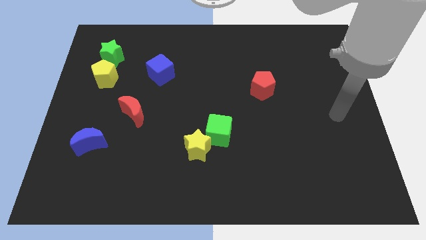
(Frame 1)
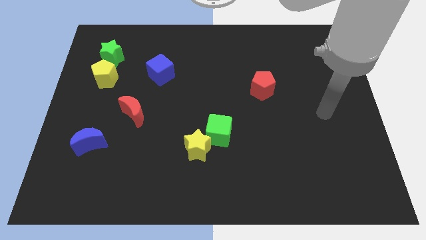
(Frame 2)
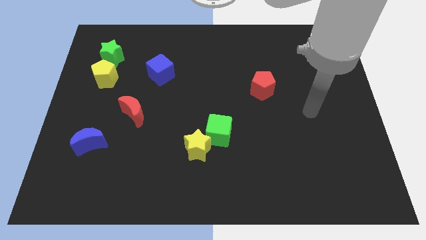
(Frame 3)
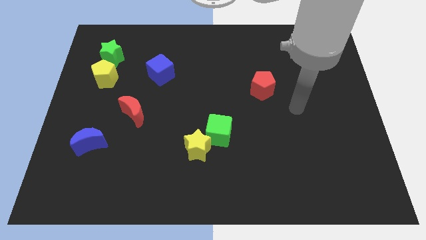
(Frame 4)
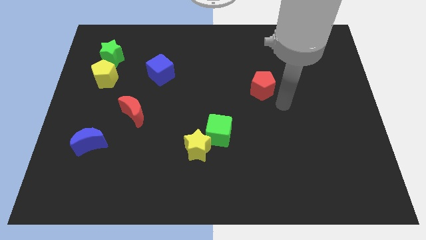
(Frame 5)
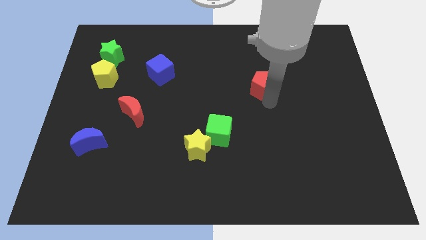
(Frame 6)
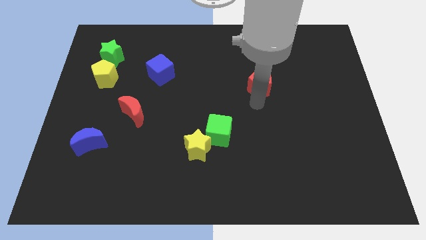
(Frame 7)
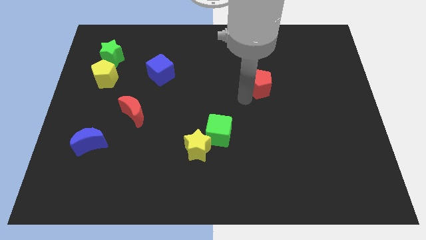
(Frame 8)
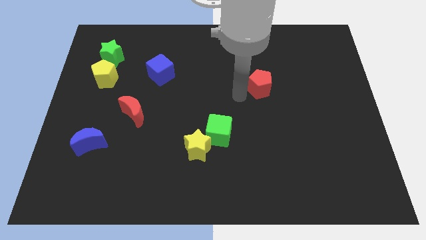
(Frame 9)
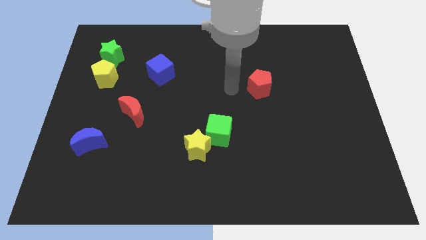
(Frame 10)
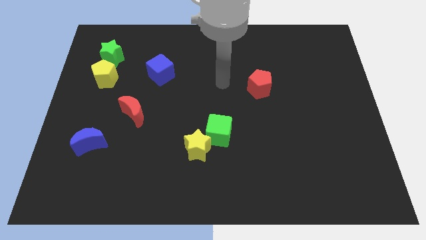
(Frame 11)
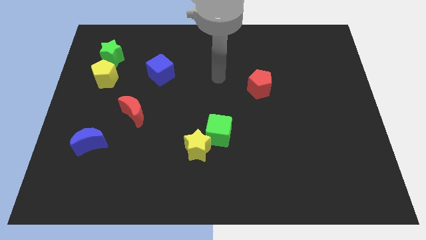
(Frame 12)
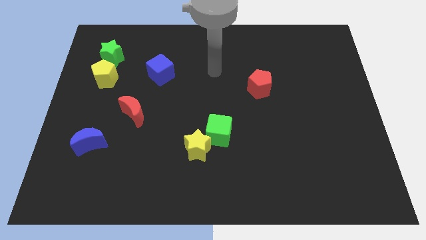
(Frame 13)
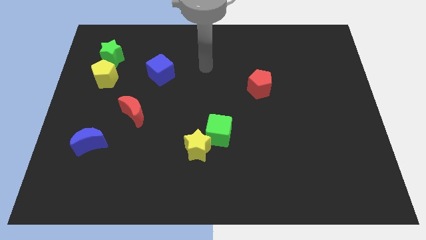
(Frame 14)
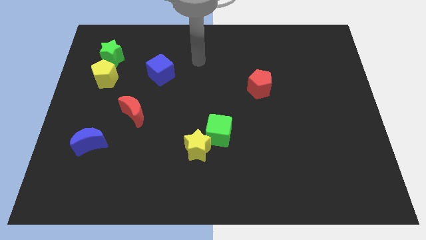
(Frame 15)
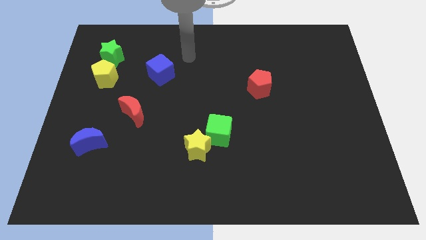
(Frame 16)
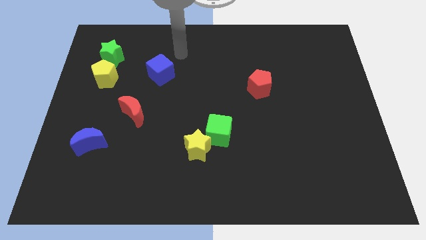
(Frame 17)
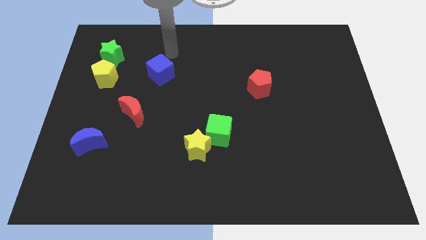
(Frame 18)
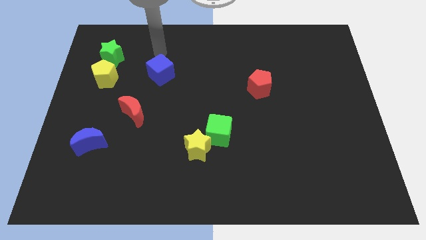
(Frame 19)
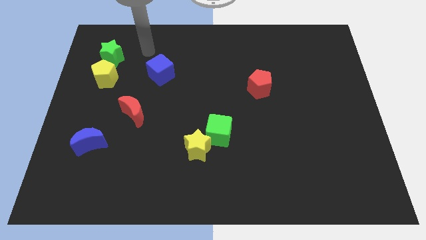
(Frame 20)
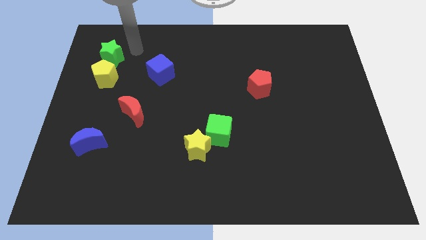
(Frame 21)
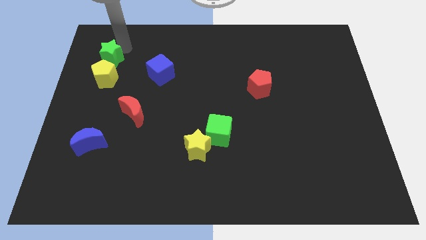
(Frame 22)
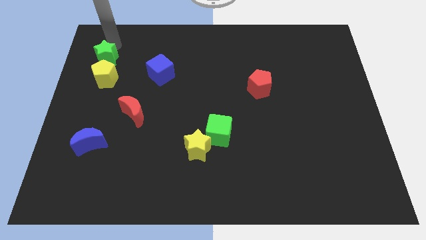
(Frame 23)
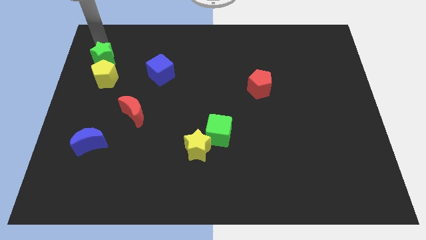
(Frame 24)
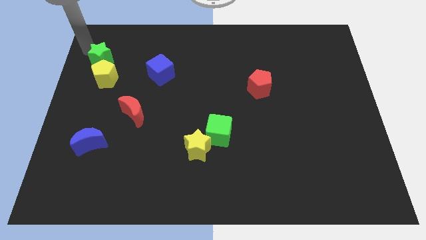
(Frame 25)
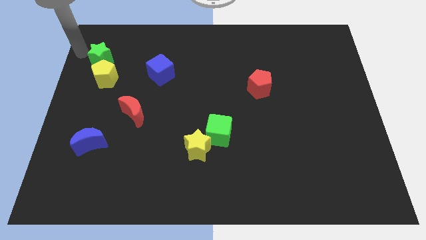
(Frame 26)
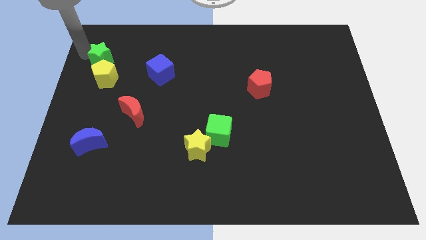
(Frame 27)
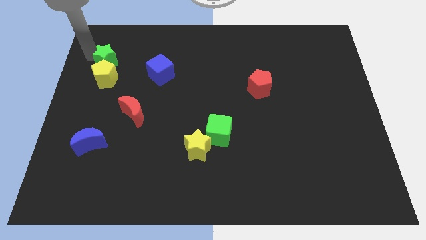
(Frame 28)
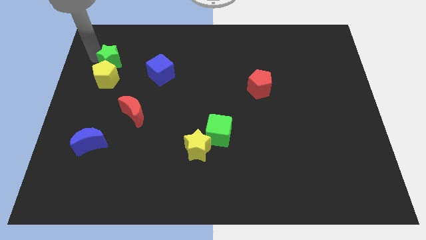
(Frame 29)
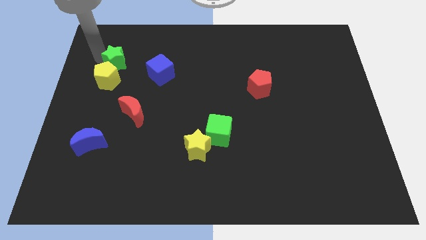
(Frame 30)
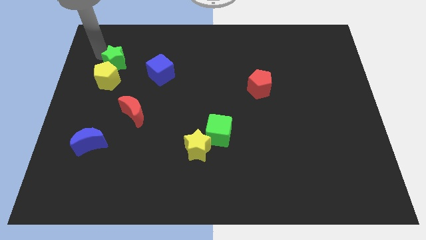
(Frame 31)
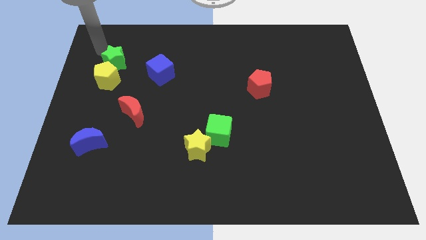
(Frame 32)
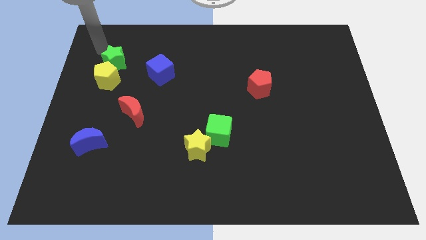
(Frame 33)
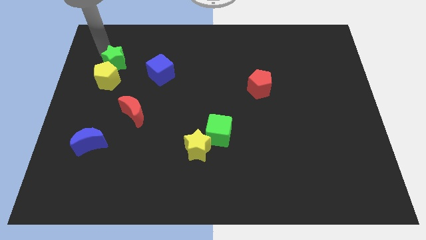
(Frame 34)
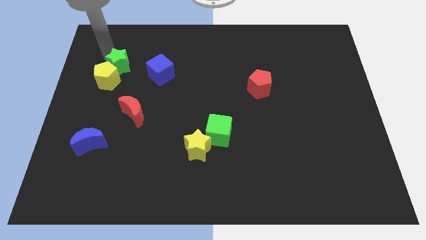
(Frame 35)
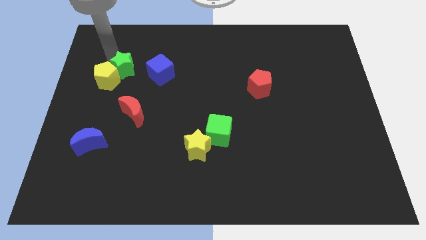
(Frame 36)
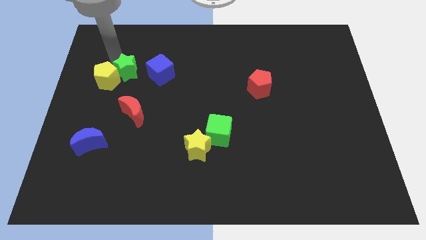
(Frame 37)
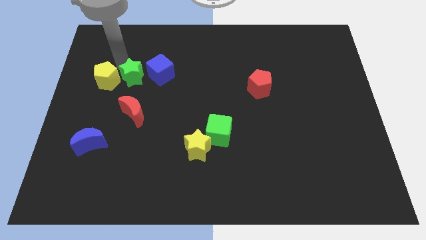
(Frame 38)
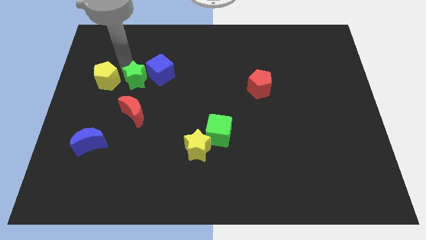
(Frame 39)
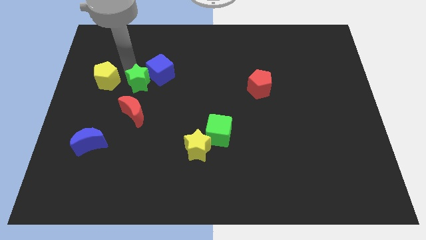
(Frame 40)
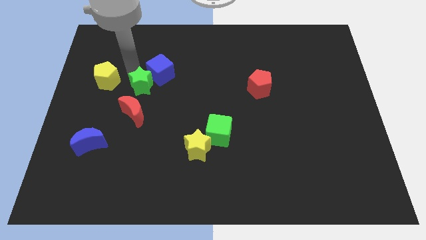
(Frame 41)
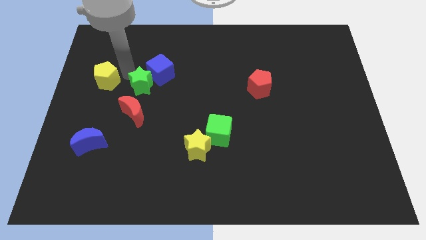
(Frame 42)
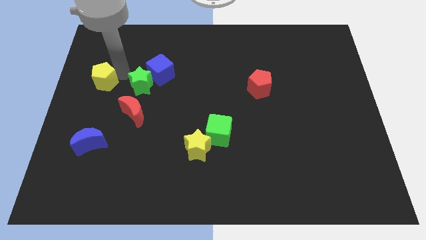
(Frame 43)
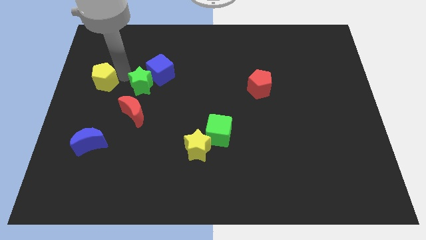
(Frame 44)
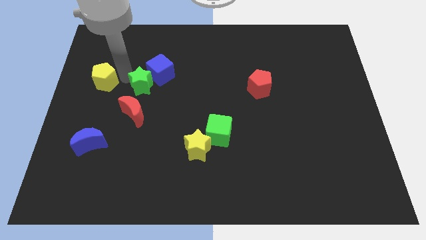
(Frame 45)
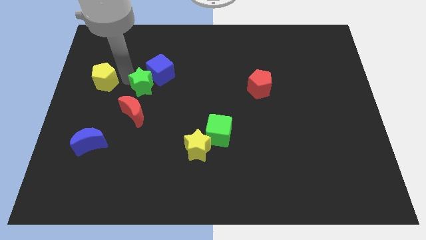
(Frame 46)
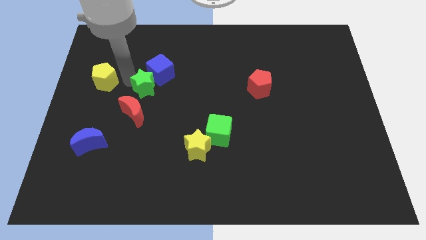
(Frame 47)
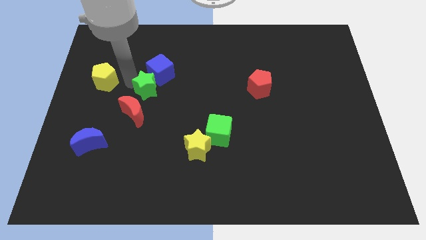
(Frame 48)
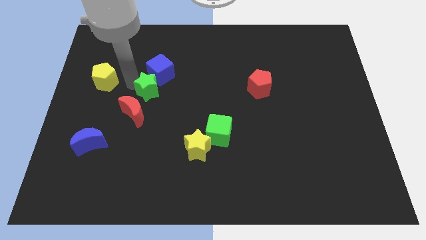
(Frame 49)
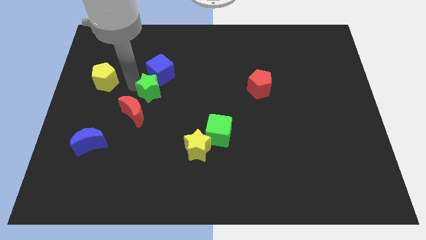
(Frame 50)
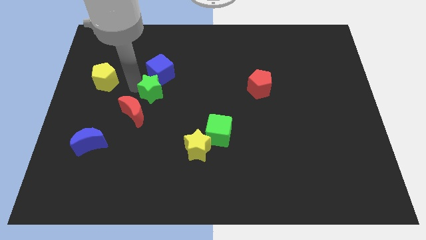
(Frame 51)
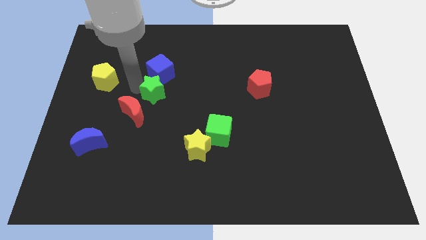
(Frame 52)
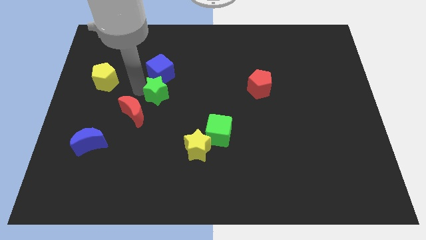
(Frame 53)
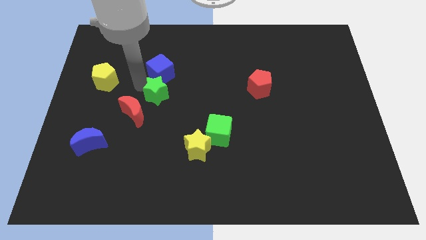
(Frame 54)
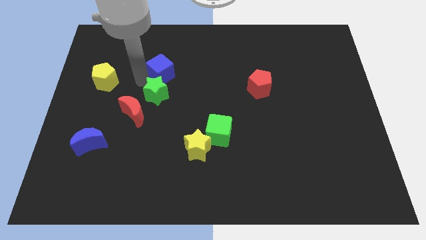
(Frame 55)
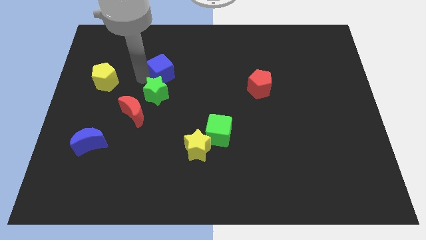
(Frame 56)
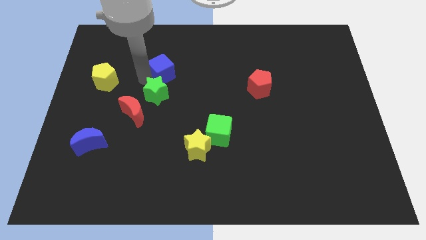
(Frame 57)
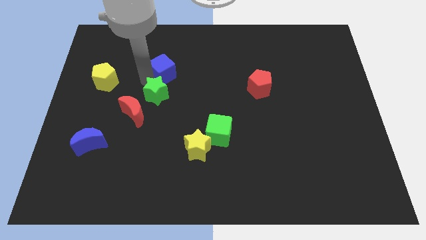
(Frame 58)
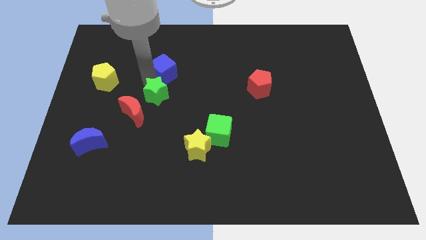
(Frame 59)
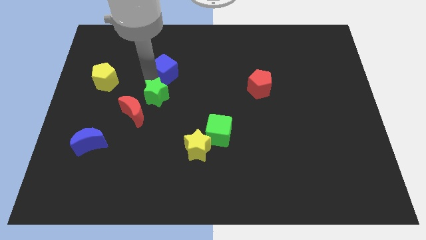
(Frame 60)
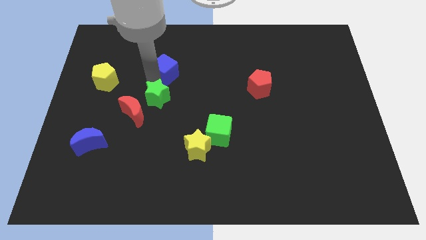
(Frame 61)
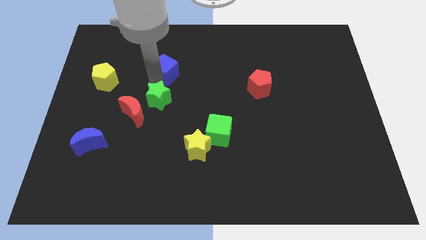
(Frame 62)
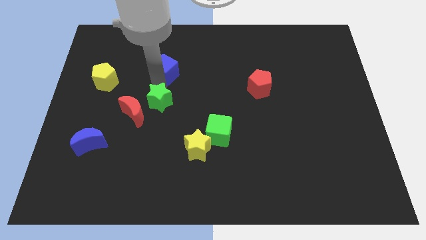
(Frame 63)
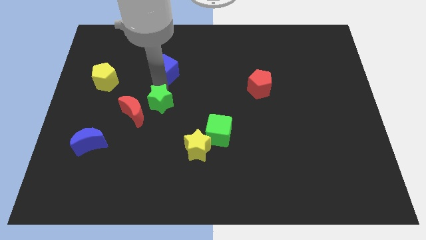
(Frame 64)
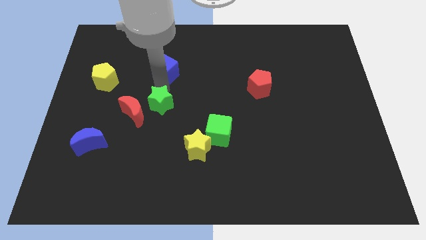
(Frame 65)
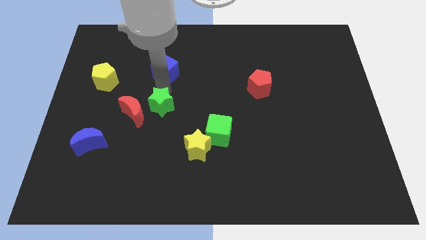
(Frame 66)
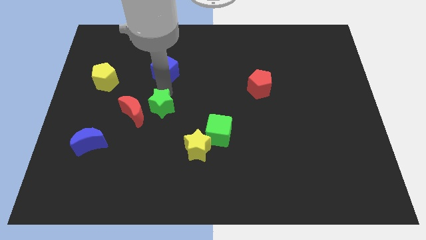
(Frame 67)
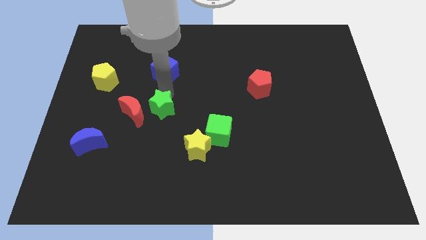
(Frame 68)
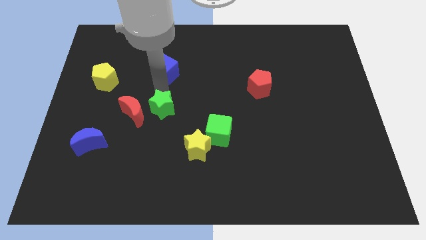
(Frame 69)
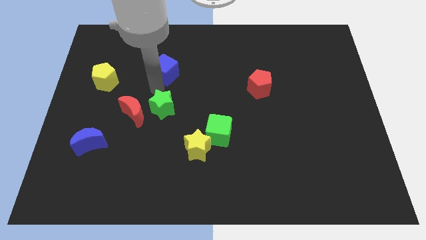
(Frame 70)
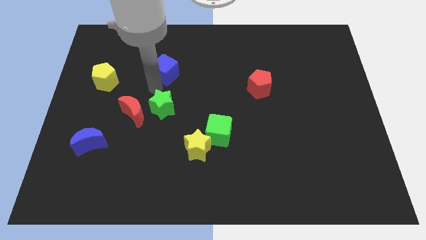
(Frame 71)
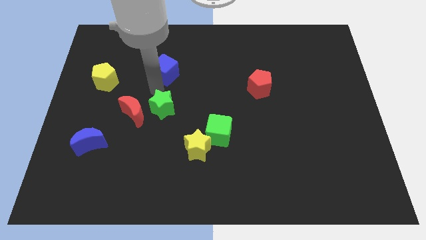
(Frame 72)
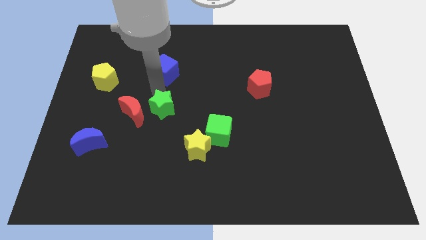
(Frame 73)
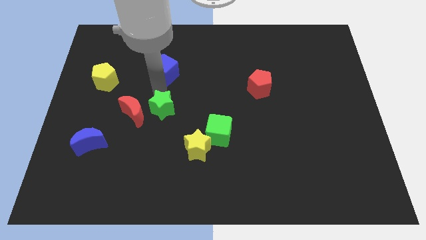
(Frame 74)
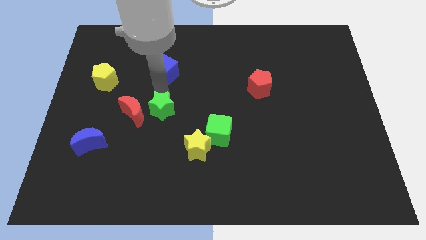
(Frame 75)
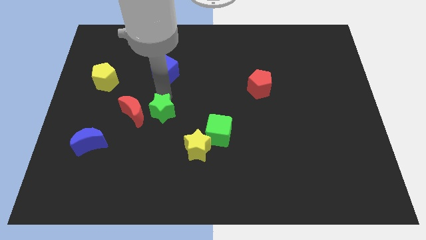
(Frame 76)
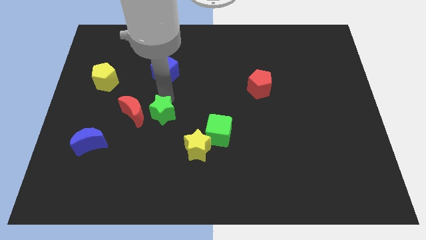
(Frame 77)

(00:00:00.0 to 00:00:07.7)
move the green star to the top left of the yellow star
